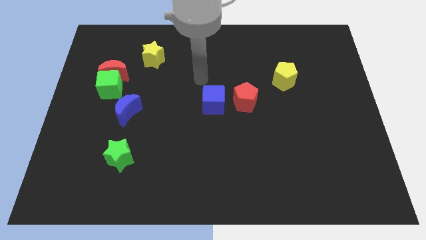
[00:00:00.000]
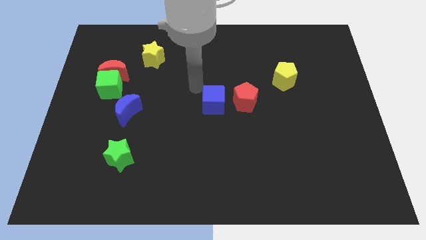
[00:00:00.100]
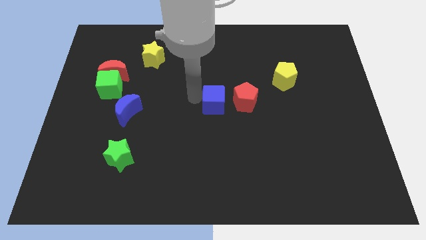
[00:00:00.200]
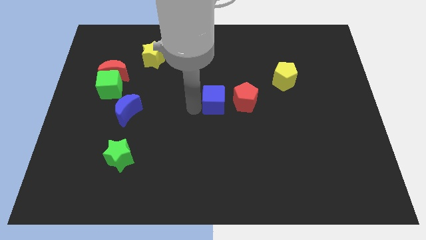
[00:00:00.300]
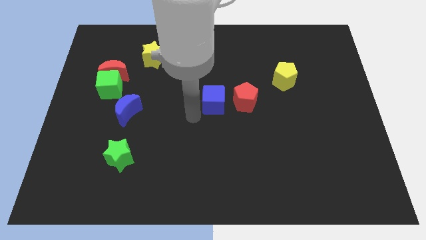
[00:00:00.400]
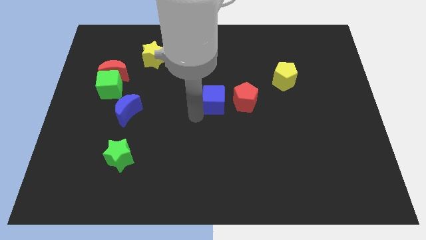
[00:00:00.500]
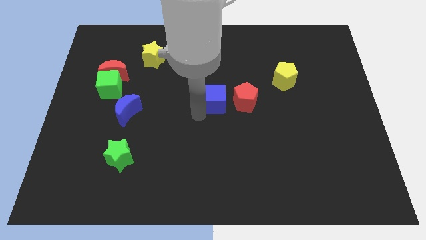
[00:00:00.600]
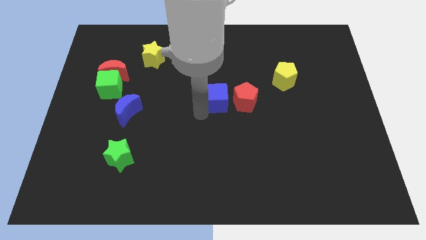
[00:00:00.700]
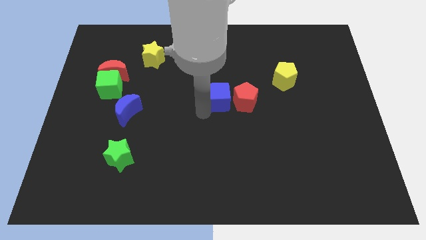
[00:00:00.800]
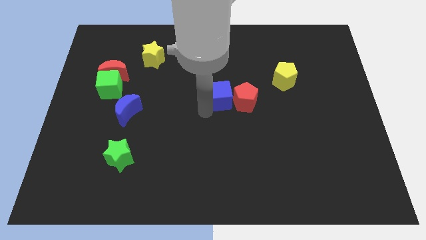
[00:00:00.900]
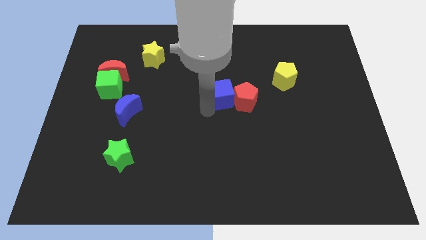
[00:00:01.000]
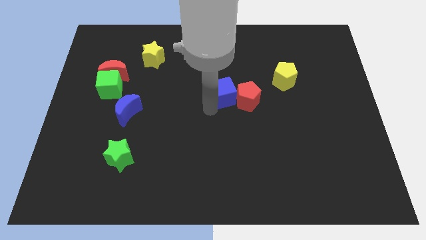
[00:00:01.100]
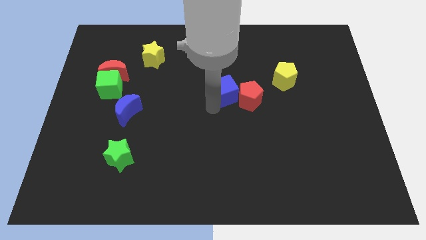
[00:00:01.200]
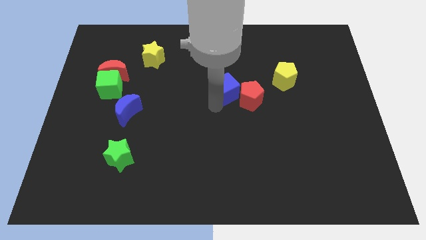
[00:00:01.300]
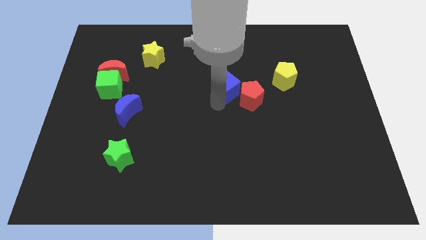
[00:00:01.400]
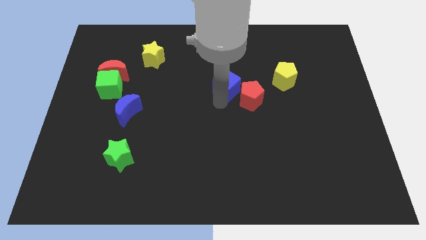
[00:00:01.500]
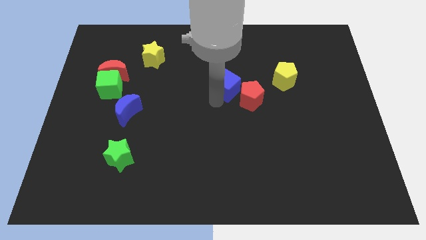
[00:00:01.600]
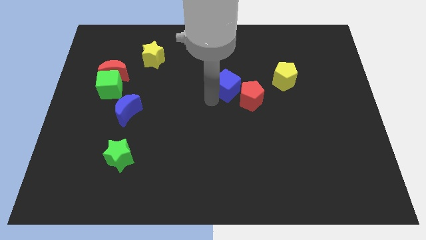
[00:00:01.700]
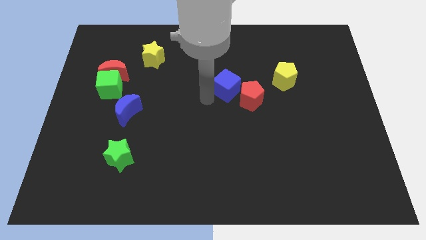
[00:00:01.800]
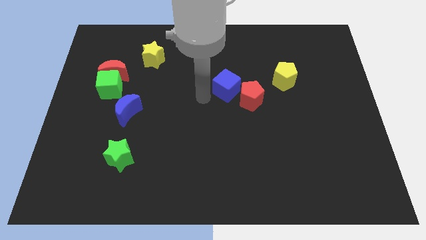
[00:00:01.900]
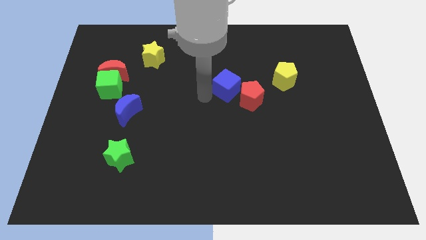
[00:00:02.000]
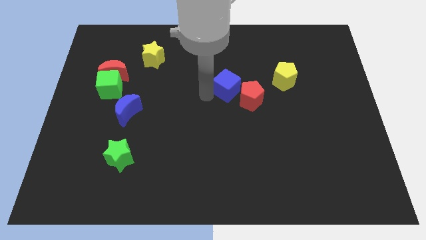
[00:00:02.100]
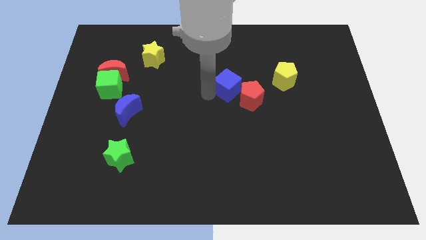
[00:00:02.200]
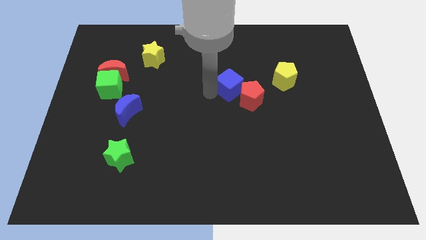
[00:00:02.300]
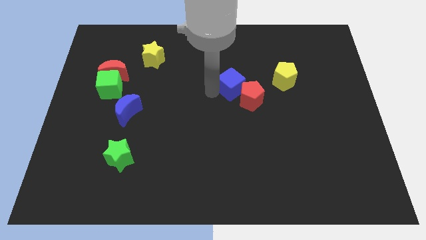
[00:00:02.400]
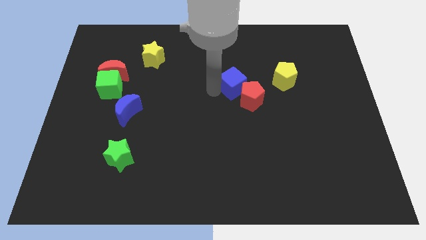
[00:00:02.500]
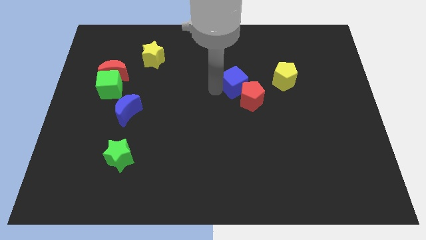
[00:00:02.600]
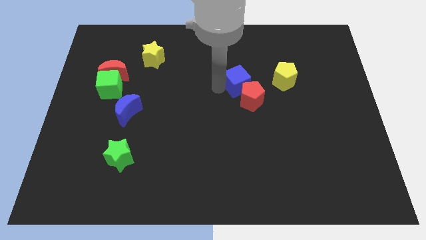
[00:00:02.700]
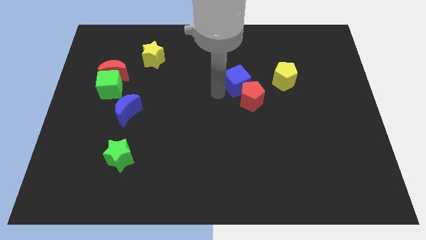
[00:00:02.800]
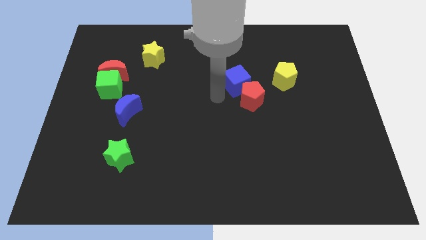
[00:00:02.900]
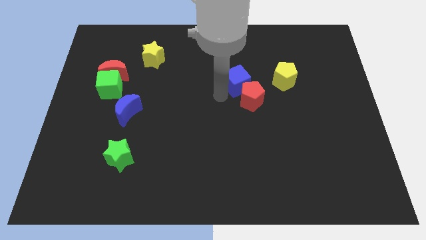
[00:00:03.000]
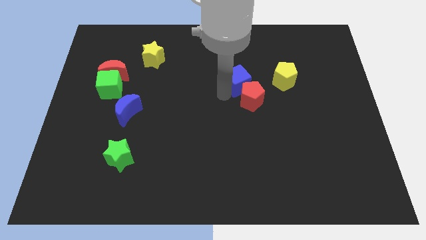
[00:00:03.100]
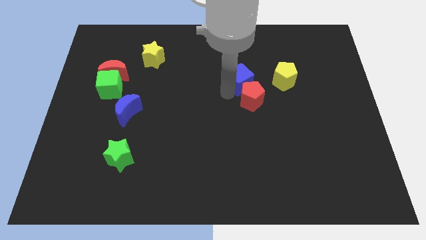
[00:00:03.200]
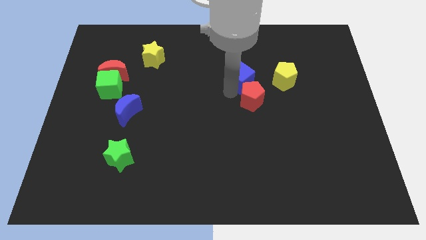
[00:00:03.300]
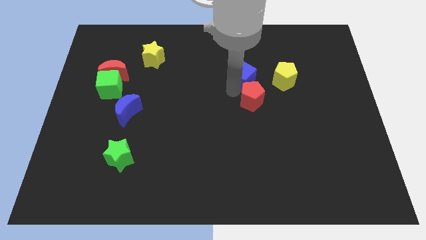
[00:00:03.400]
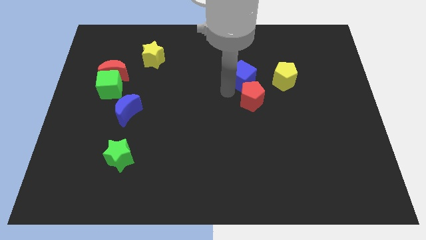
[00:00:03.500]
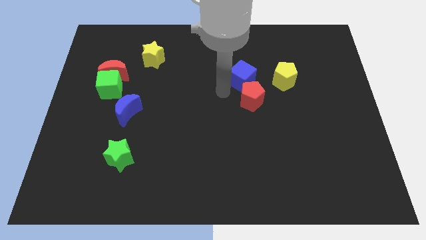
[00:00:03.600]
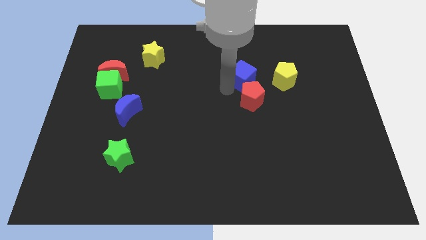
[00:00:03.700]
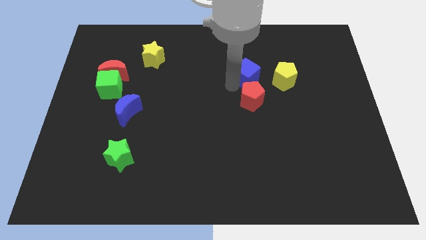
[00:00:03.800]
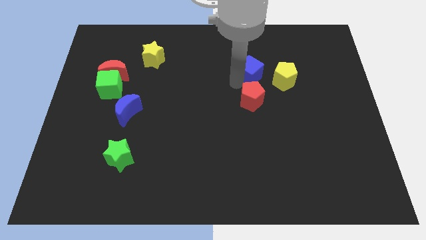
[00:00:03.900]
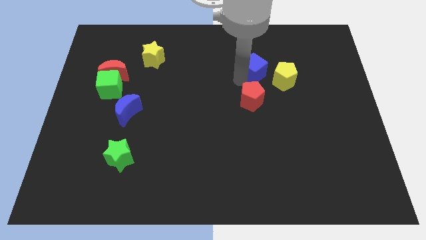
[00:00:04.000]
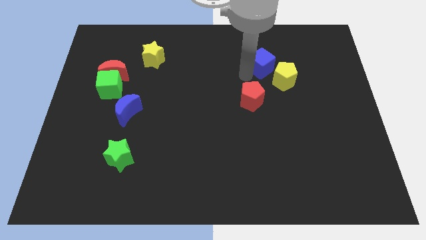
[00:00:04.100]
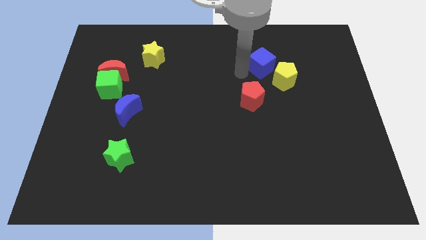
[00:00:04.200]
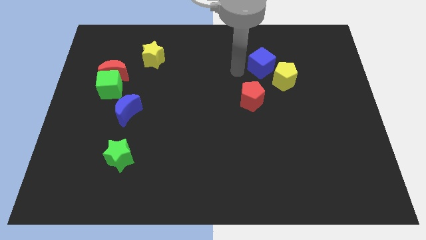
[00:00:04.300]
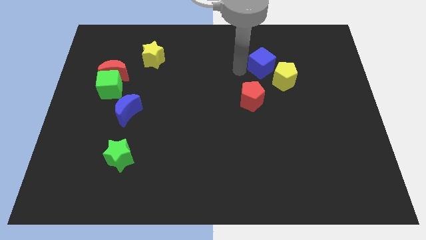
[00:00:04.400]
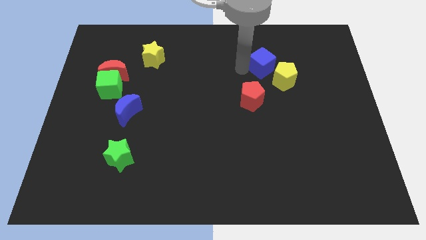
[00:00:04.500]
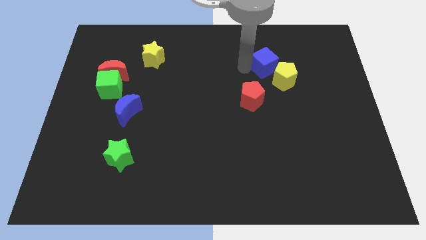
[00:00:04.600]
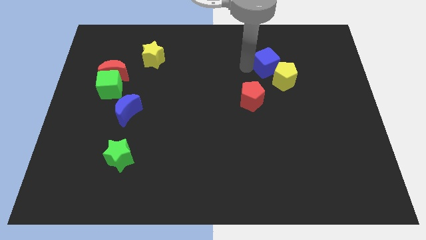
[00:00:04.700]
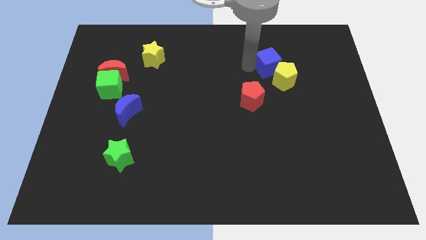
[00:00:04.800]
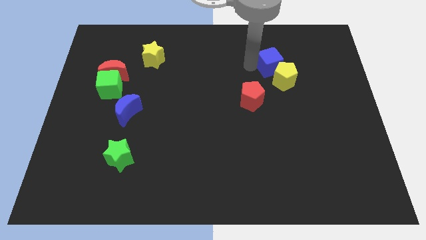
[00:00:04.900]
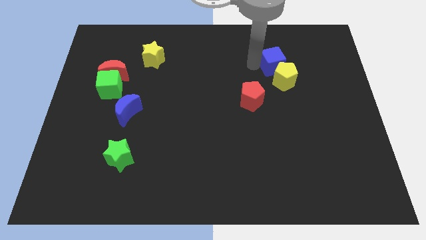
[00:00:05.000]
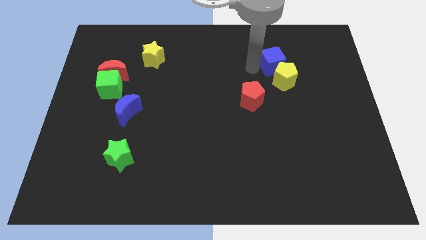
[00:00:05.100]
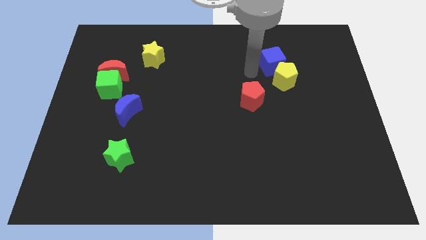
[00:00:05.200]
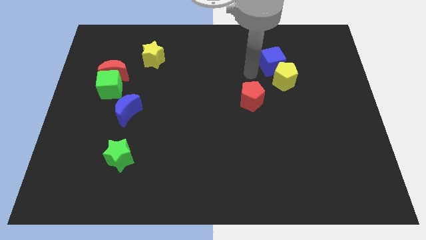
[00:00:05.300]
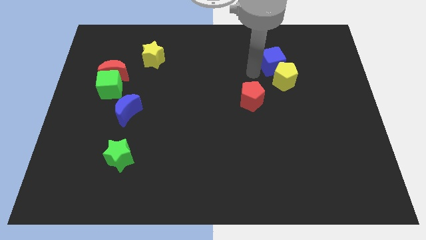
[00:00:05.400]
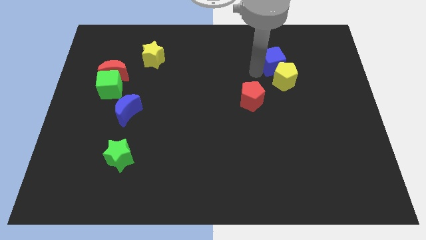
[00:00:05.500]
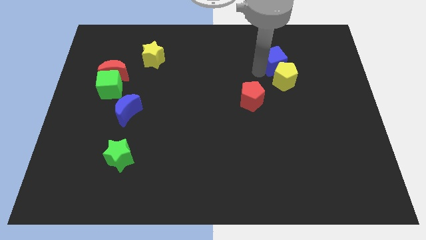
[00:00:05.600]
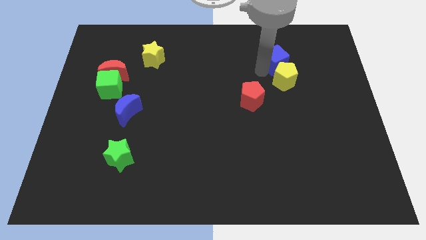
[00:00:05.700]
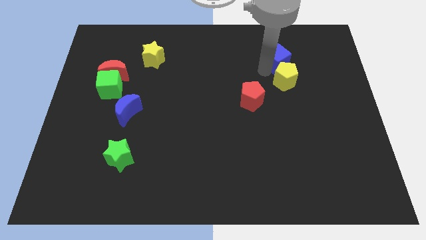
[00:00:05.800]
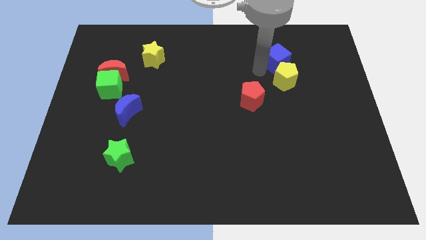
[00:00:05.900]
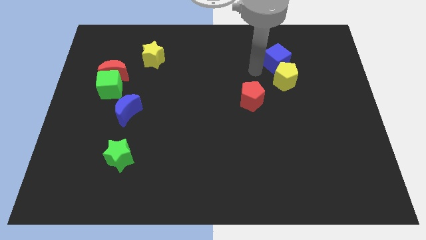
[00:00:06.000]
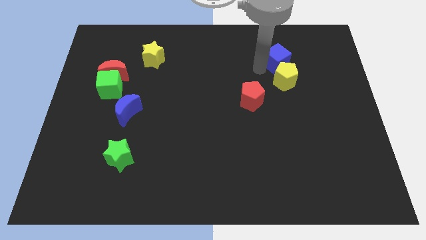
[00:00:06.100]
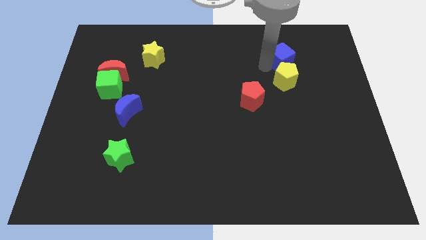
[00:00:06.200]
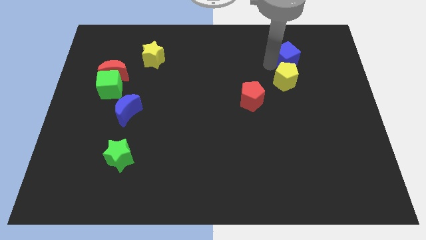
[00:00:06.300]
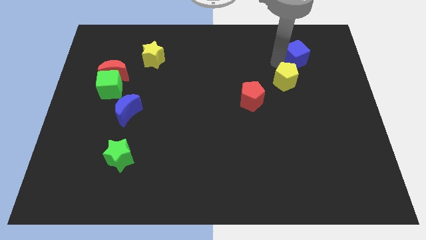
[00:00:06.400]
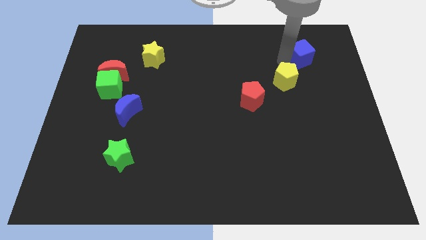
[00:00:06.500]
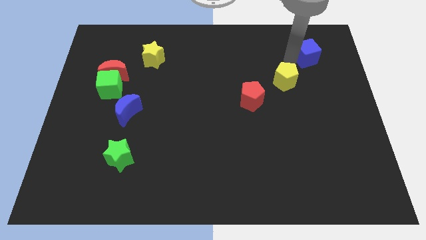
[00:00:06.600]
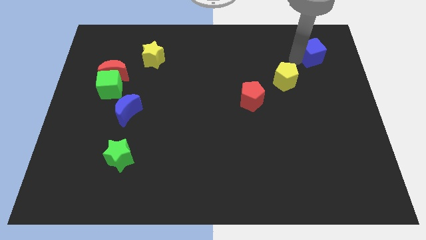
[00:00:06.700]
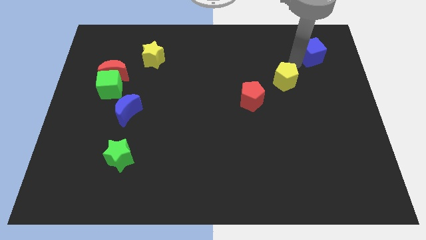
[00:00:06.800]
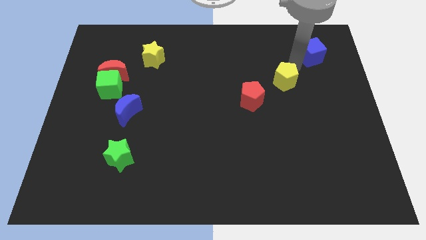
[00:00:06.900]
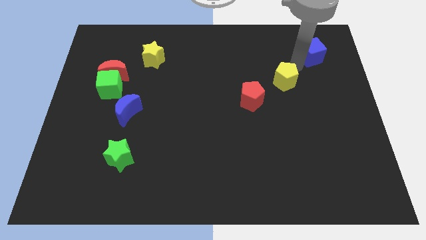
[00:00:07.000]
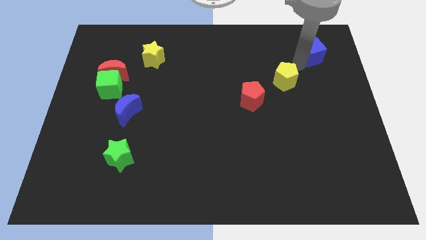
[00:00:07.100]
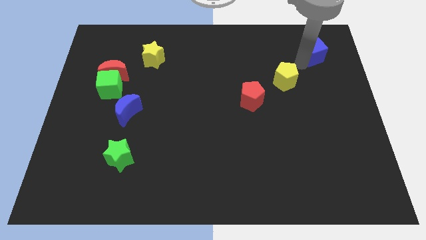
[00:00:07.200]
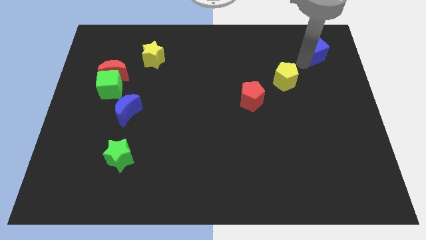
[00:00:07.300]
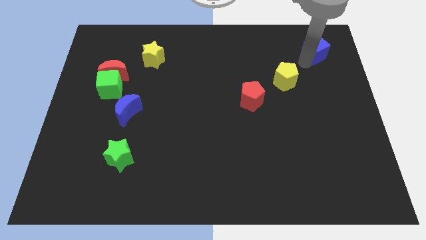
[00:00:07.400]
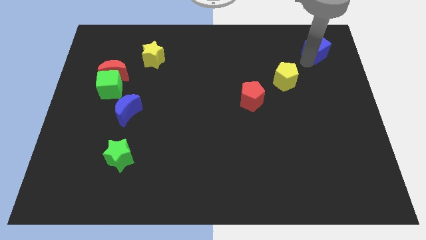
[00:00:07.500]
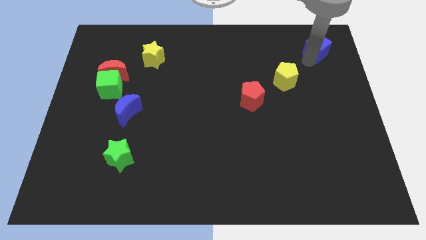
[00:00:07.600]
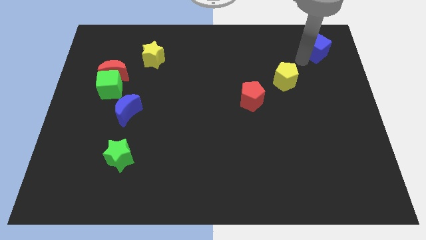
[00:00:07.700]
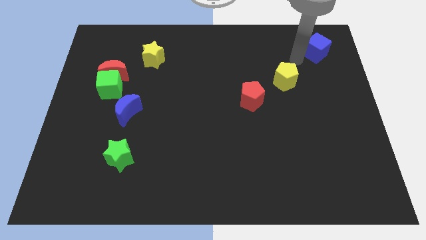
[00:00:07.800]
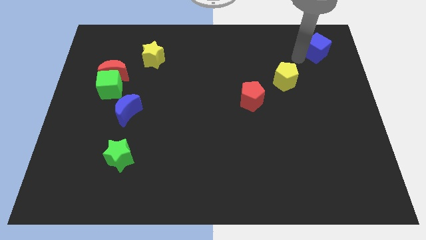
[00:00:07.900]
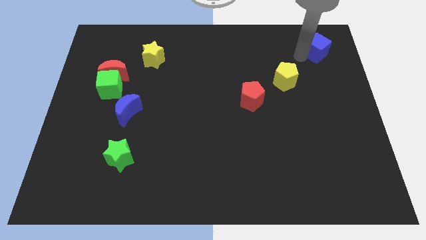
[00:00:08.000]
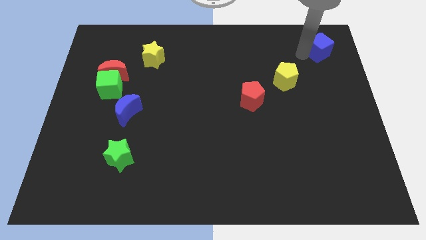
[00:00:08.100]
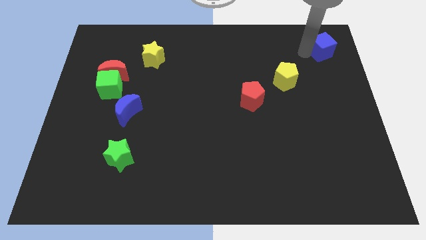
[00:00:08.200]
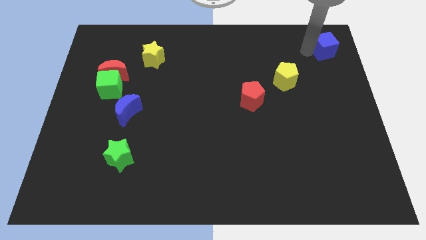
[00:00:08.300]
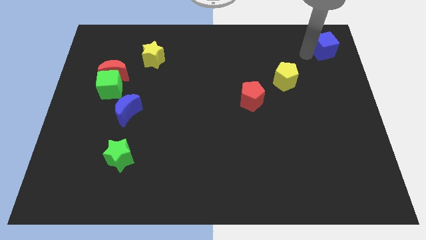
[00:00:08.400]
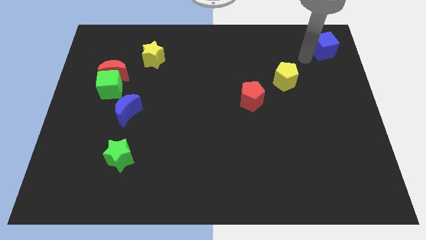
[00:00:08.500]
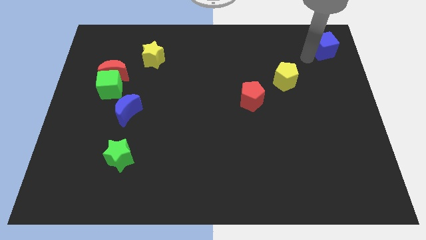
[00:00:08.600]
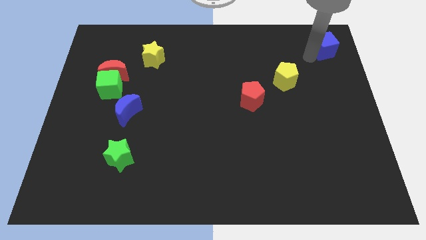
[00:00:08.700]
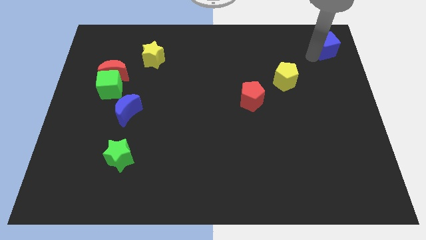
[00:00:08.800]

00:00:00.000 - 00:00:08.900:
push the blue cube to the top right
